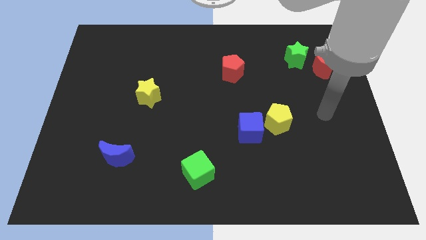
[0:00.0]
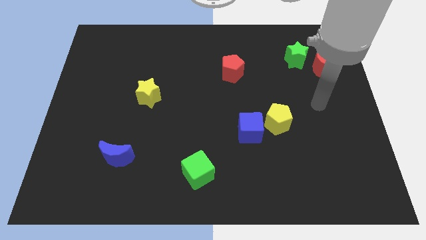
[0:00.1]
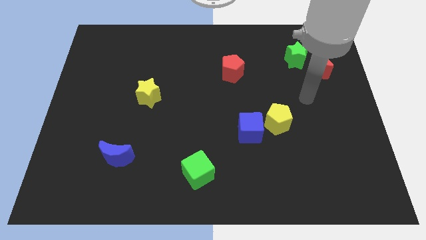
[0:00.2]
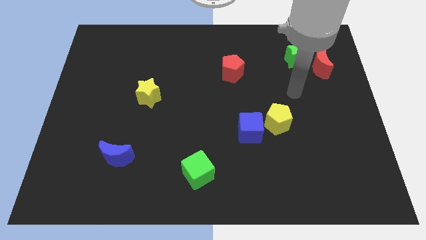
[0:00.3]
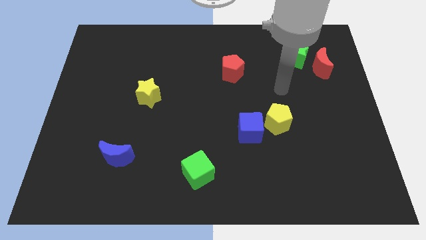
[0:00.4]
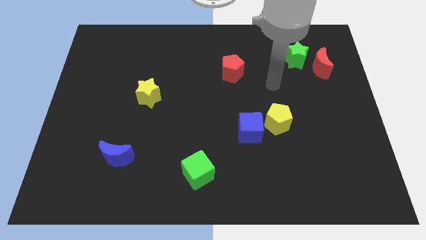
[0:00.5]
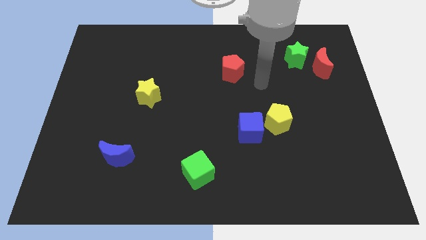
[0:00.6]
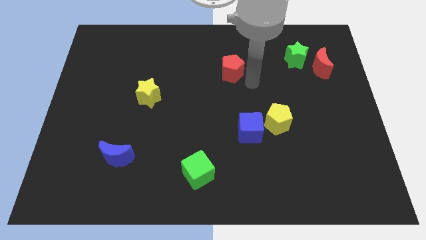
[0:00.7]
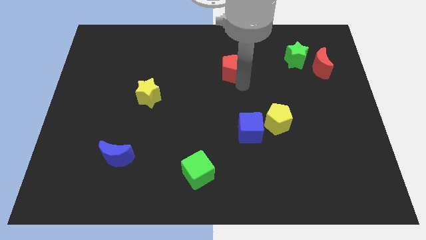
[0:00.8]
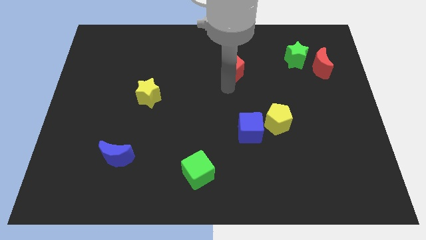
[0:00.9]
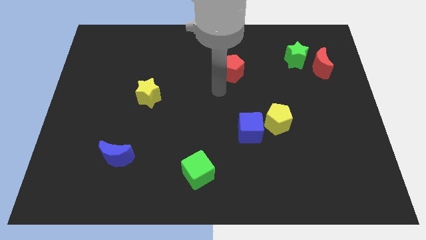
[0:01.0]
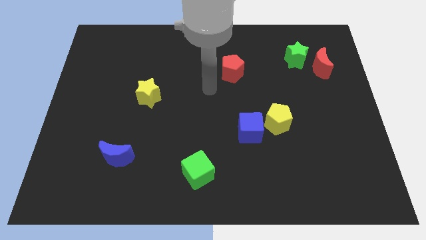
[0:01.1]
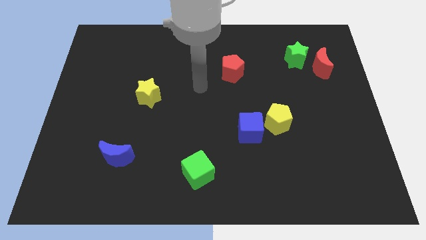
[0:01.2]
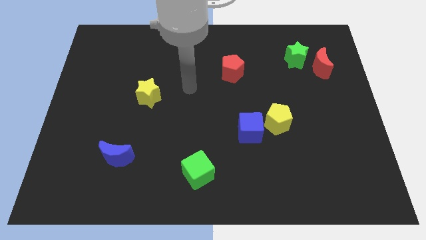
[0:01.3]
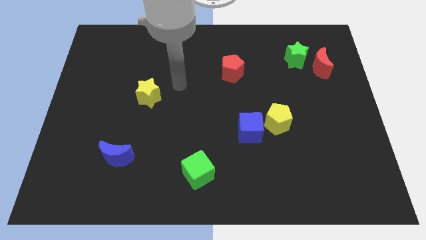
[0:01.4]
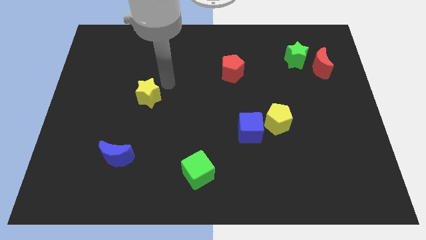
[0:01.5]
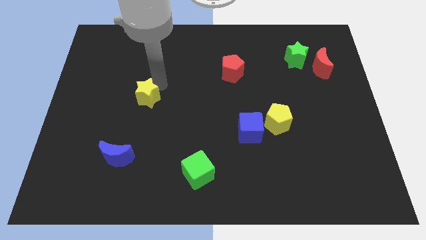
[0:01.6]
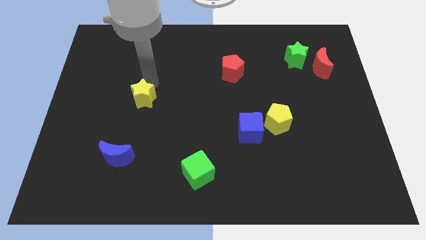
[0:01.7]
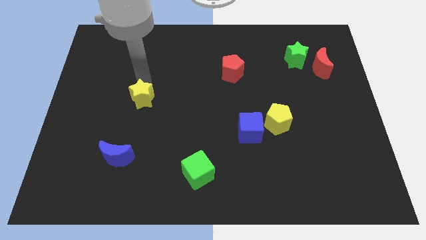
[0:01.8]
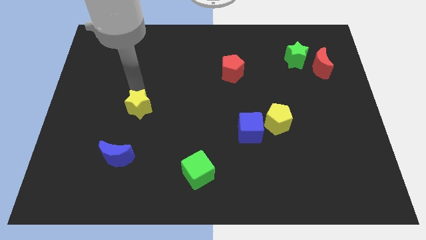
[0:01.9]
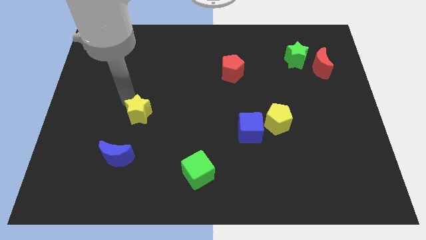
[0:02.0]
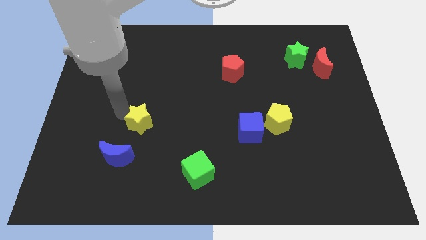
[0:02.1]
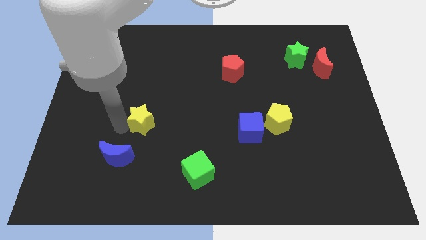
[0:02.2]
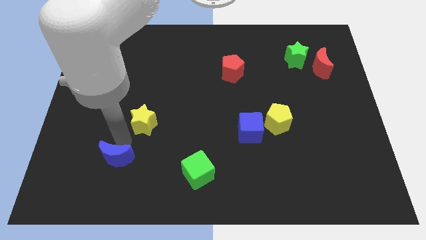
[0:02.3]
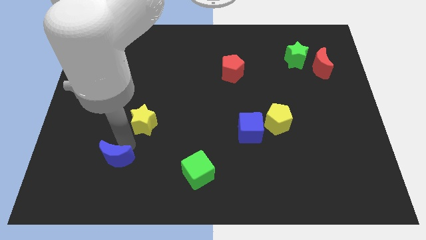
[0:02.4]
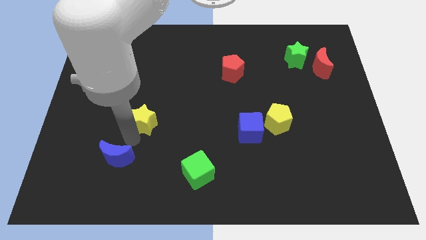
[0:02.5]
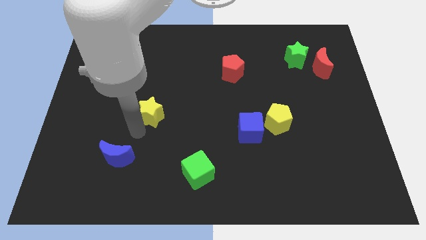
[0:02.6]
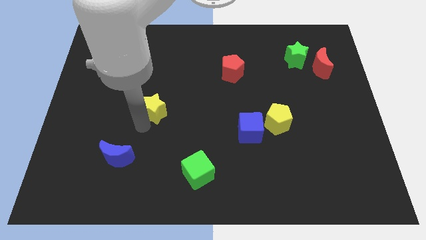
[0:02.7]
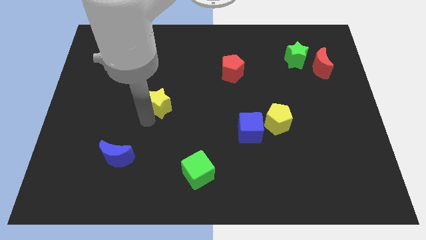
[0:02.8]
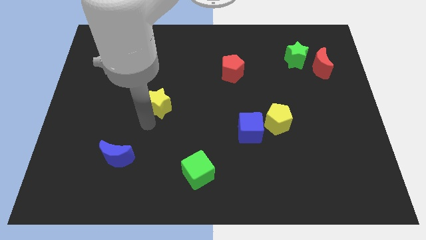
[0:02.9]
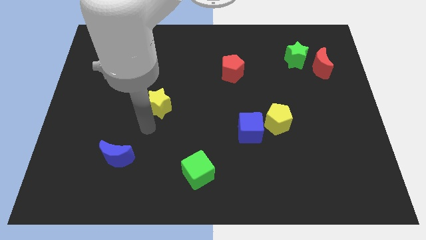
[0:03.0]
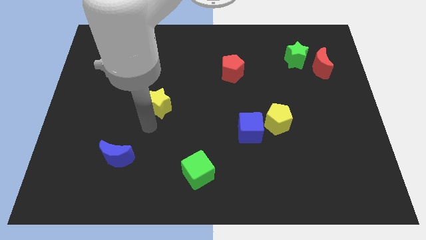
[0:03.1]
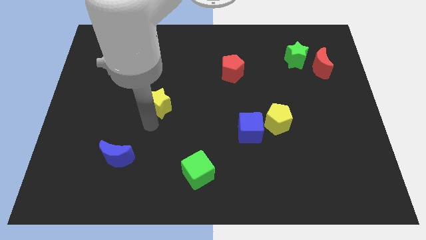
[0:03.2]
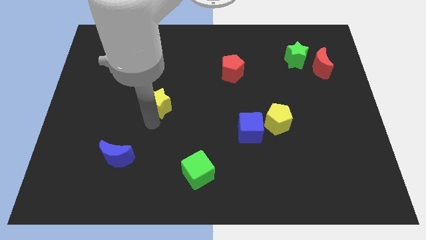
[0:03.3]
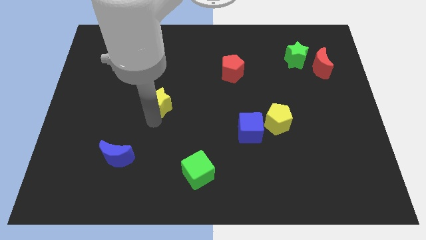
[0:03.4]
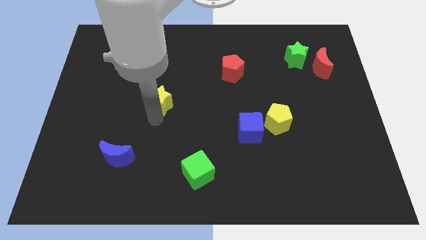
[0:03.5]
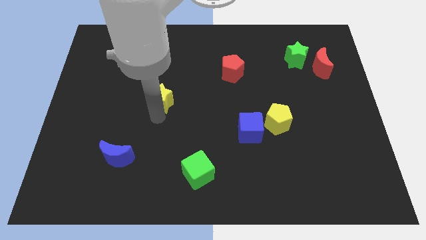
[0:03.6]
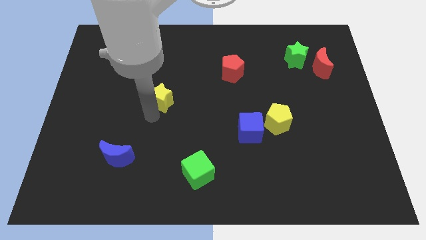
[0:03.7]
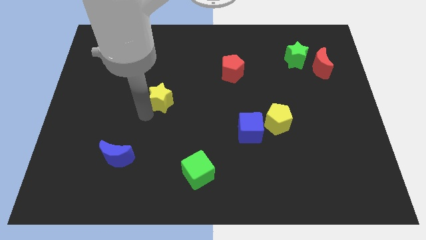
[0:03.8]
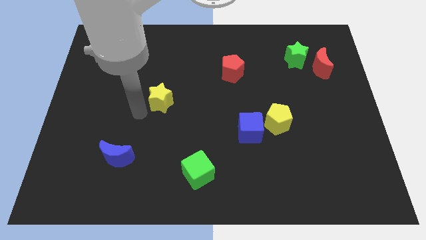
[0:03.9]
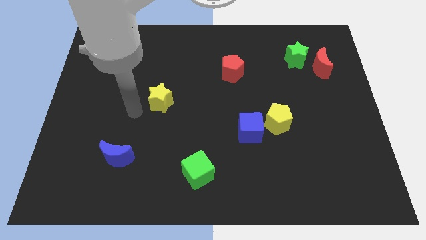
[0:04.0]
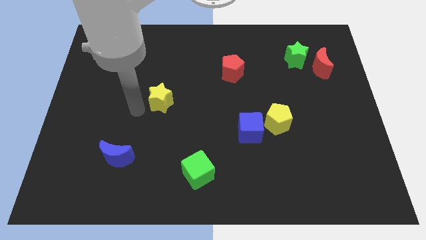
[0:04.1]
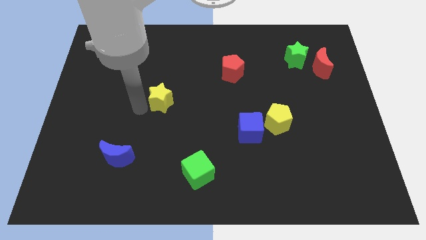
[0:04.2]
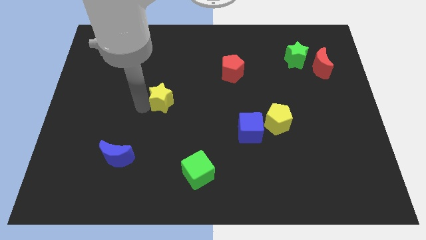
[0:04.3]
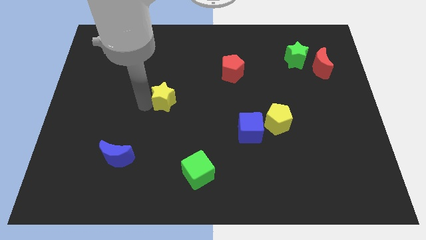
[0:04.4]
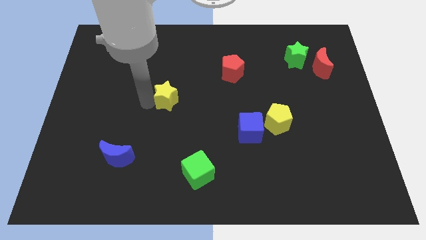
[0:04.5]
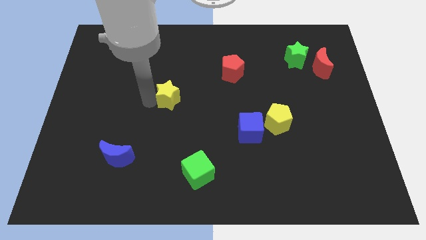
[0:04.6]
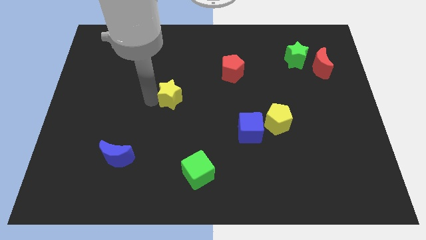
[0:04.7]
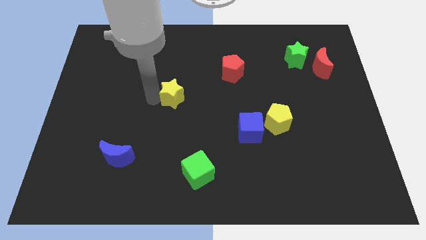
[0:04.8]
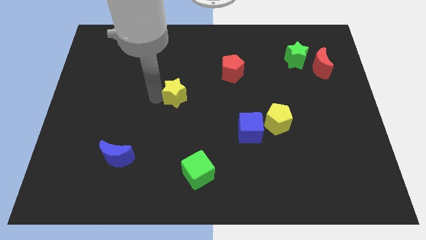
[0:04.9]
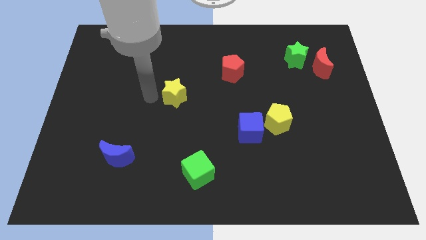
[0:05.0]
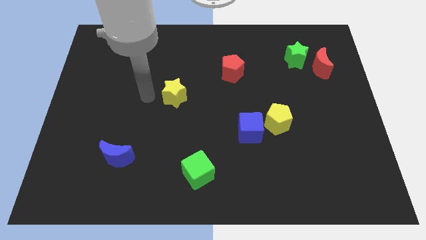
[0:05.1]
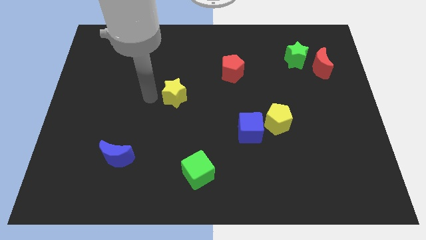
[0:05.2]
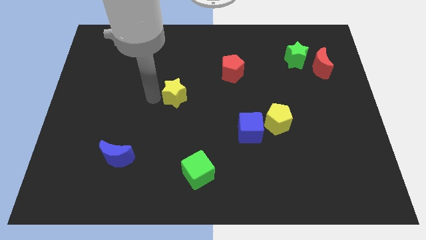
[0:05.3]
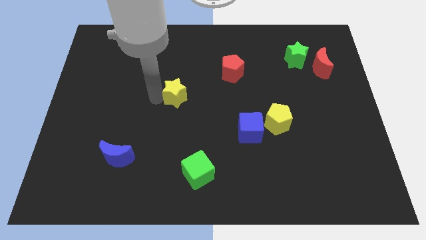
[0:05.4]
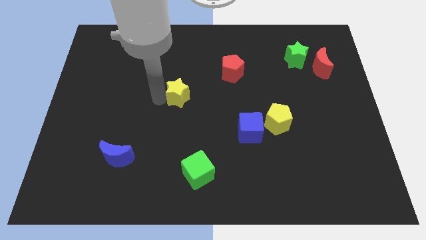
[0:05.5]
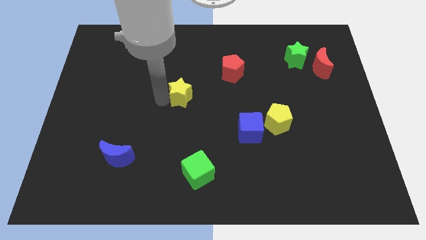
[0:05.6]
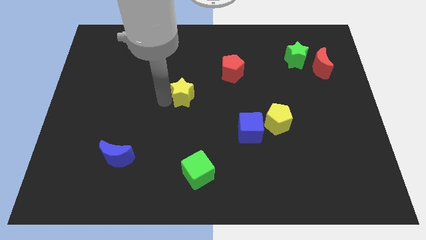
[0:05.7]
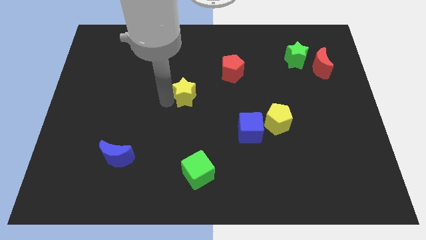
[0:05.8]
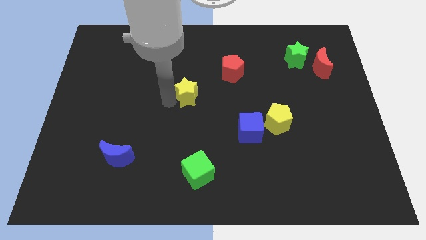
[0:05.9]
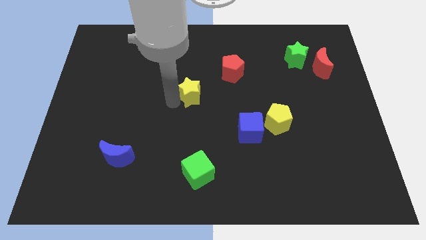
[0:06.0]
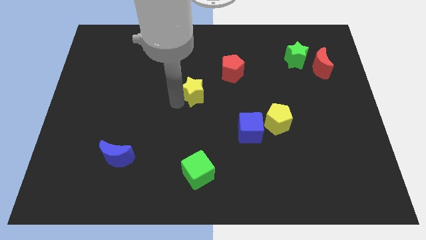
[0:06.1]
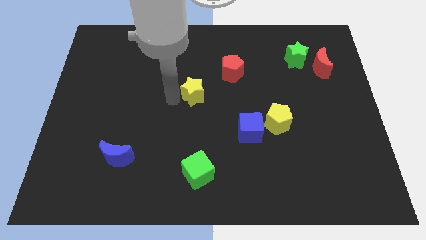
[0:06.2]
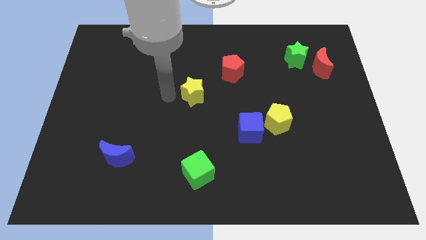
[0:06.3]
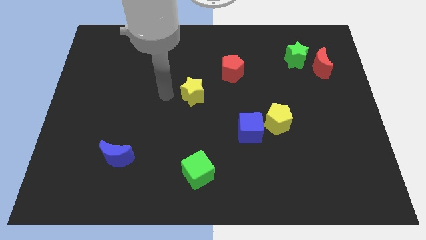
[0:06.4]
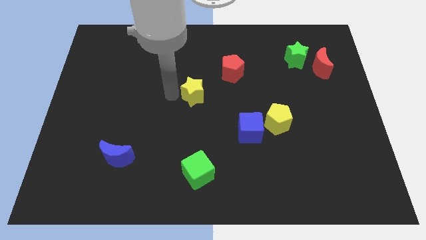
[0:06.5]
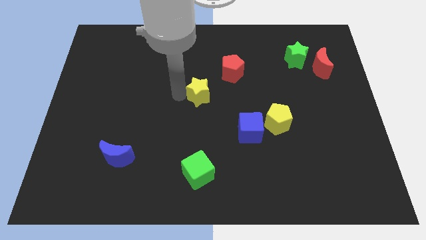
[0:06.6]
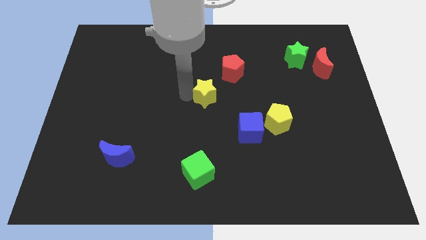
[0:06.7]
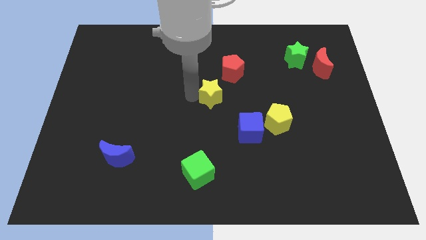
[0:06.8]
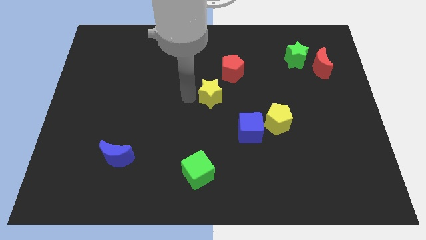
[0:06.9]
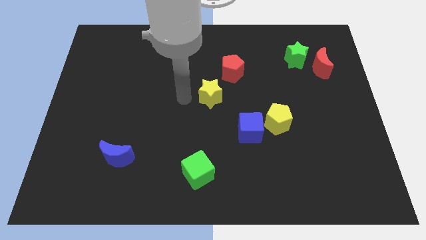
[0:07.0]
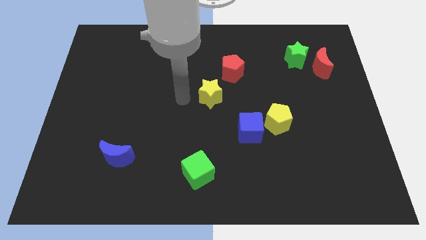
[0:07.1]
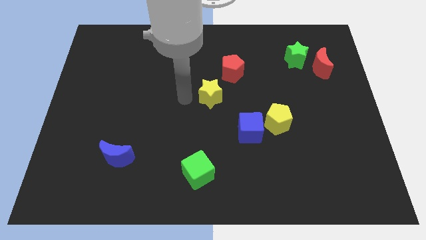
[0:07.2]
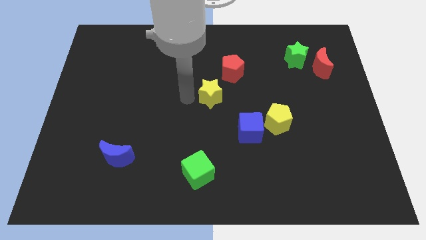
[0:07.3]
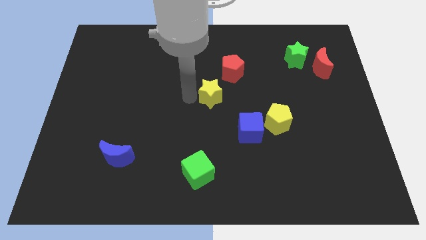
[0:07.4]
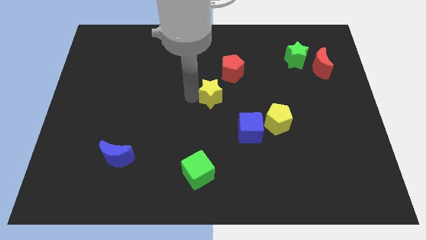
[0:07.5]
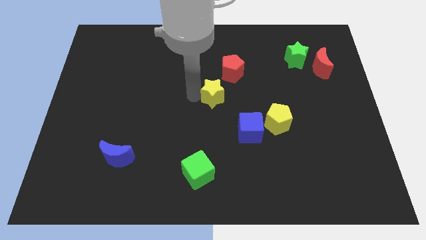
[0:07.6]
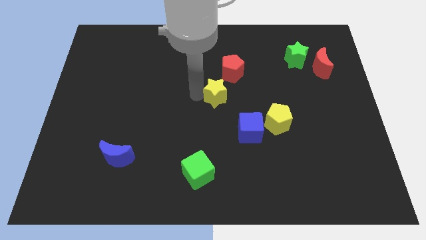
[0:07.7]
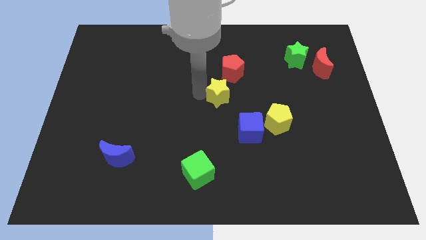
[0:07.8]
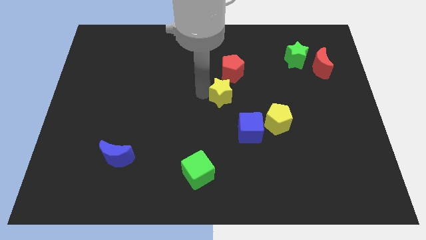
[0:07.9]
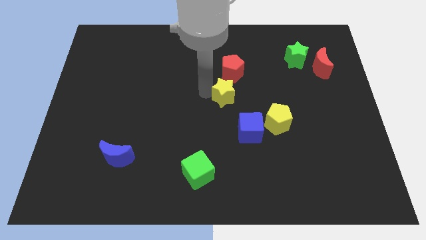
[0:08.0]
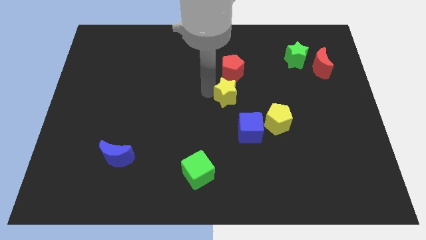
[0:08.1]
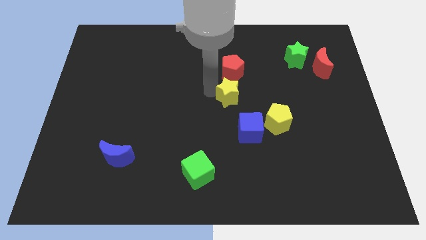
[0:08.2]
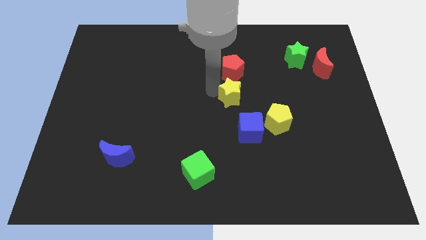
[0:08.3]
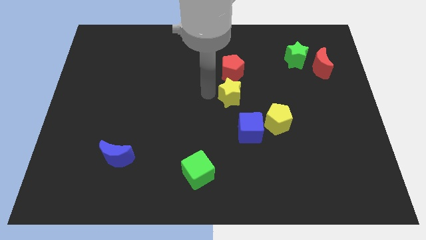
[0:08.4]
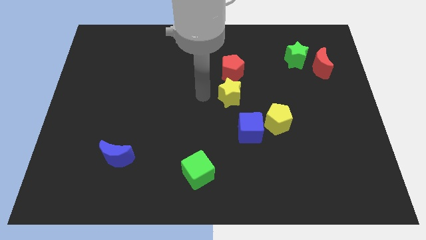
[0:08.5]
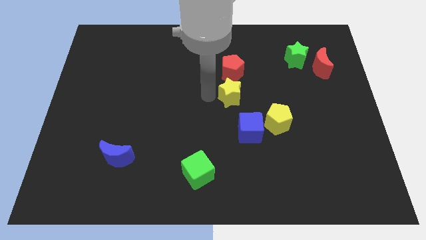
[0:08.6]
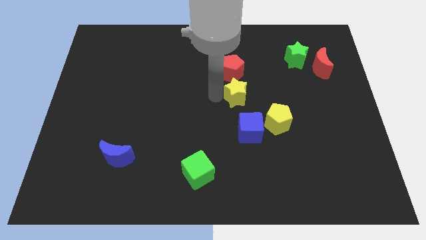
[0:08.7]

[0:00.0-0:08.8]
move the yellow star to the right
